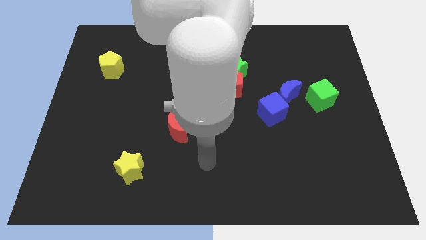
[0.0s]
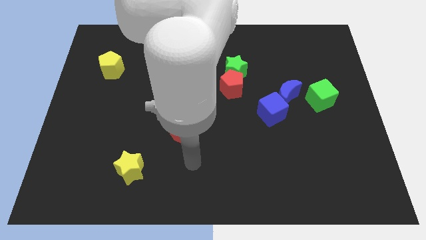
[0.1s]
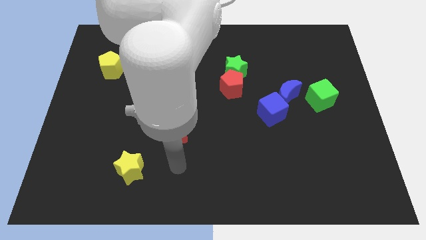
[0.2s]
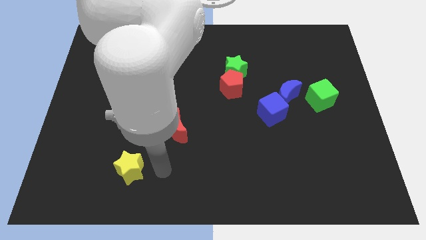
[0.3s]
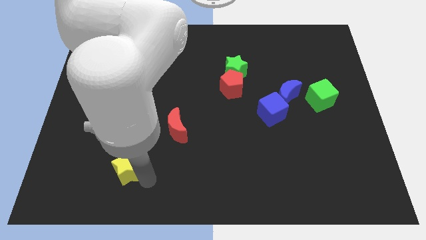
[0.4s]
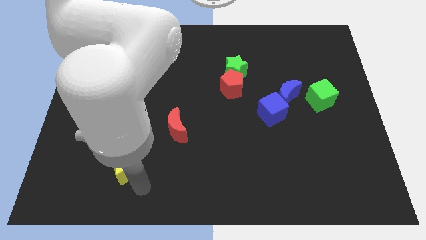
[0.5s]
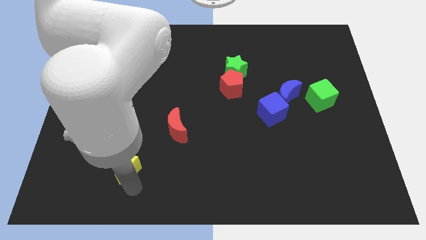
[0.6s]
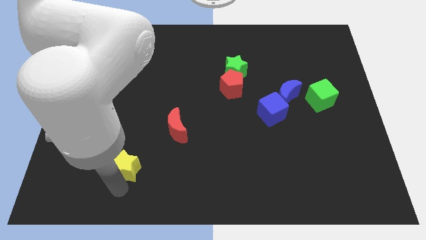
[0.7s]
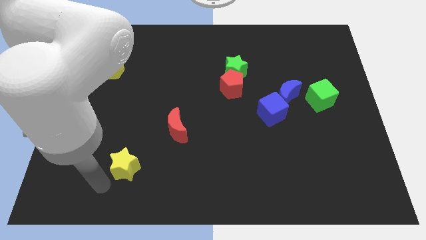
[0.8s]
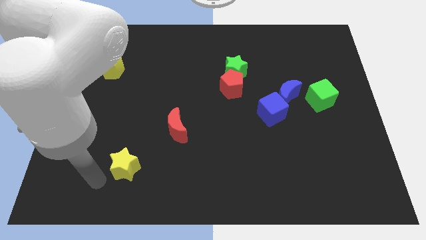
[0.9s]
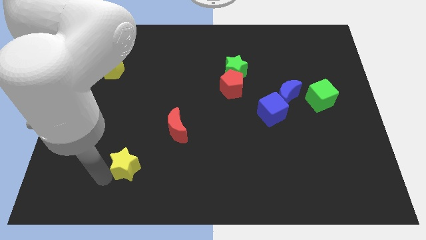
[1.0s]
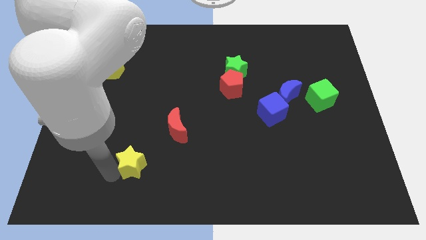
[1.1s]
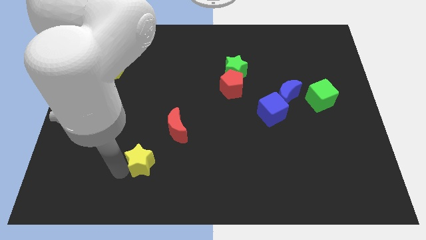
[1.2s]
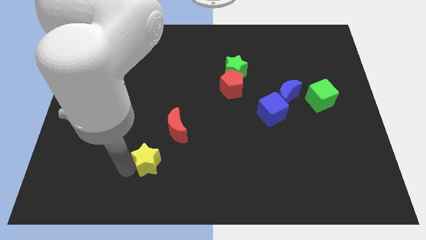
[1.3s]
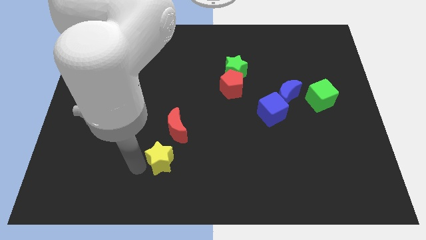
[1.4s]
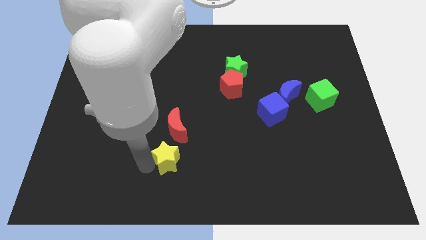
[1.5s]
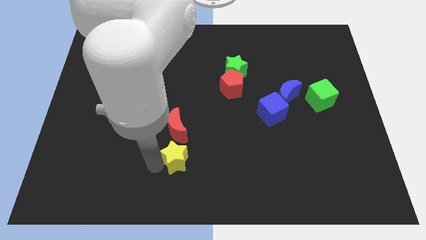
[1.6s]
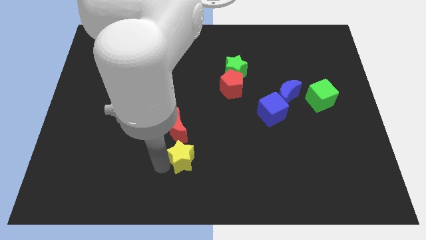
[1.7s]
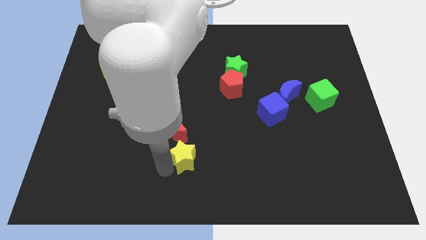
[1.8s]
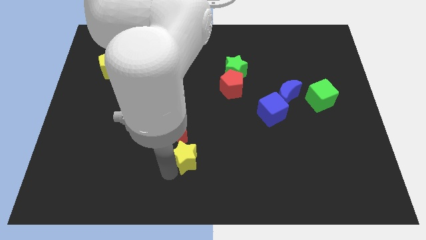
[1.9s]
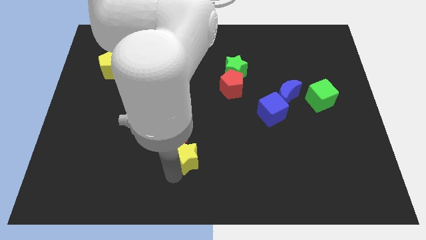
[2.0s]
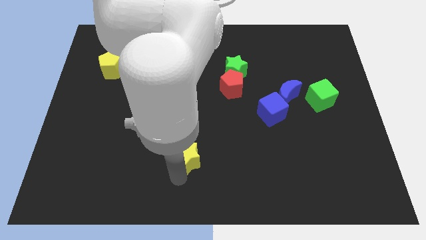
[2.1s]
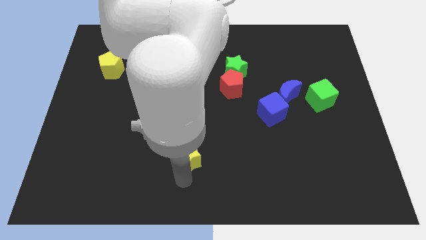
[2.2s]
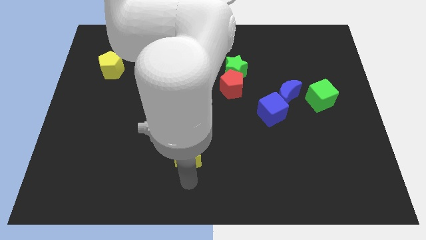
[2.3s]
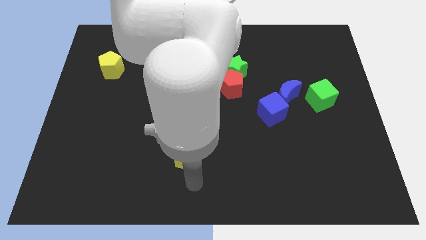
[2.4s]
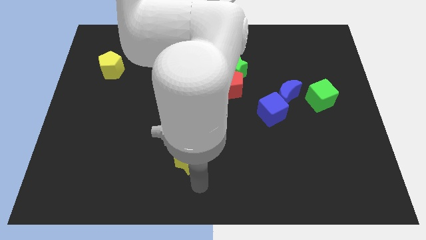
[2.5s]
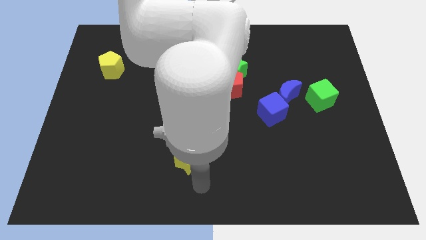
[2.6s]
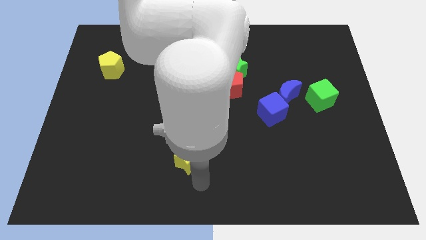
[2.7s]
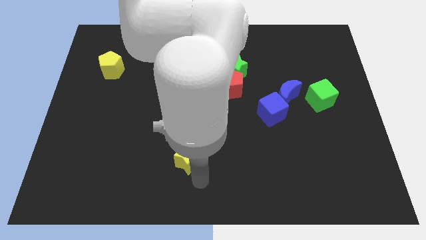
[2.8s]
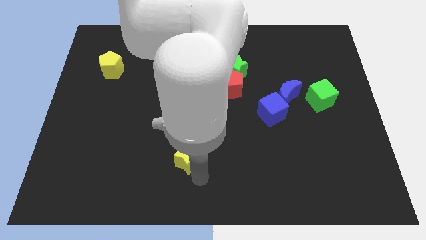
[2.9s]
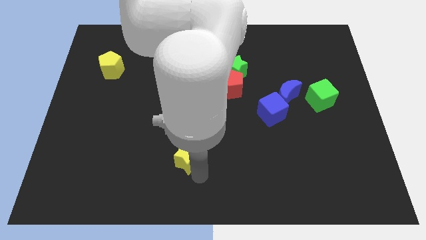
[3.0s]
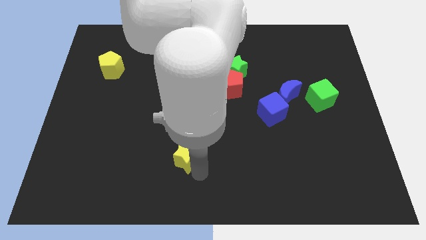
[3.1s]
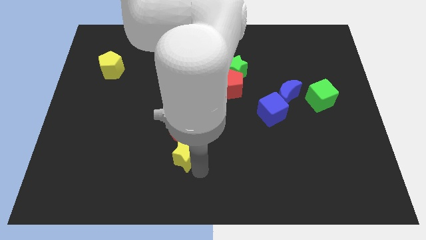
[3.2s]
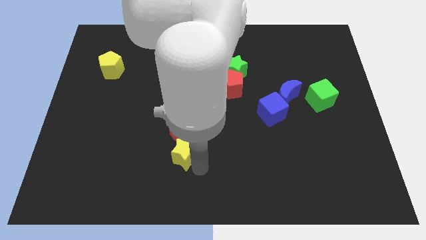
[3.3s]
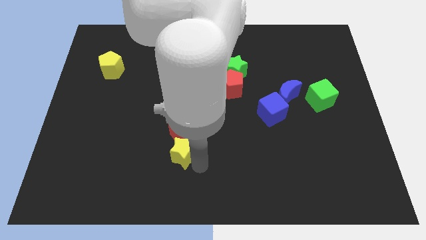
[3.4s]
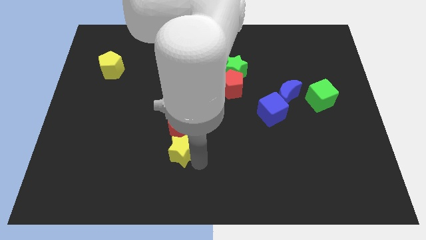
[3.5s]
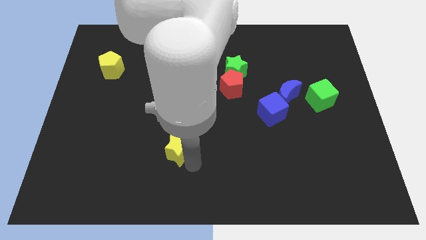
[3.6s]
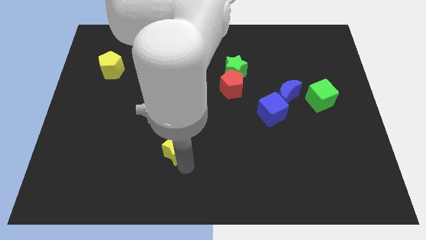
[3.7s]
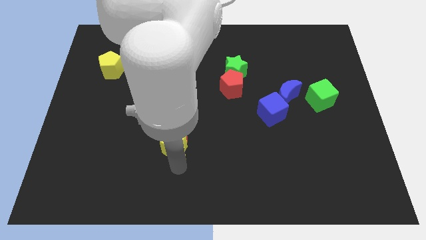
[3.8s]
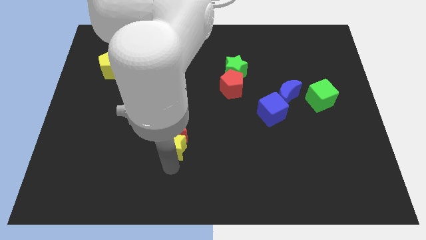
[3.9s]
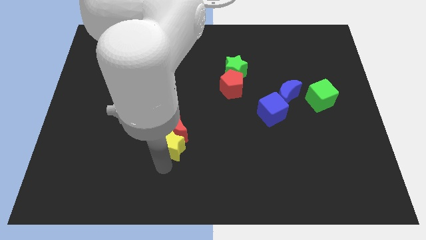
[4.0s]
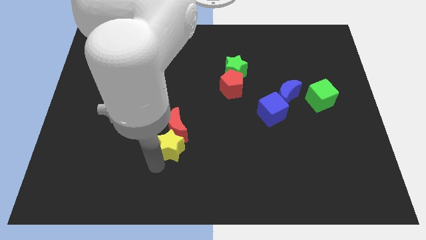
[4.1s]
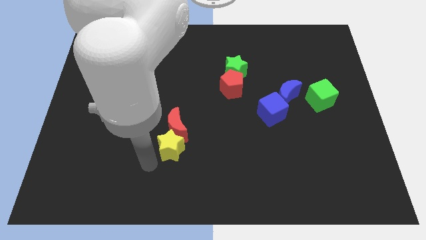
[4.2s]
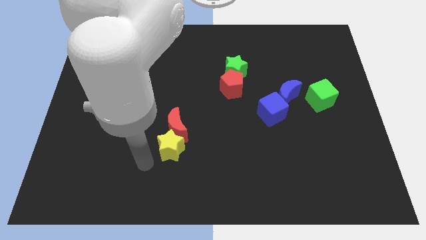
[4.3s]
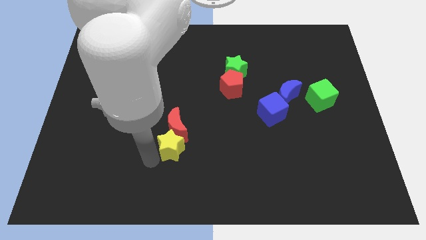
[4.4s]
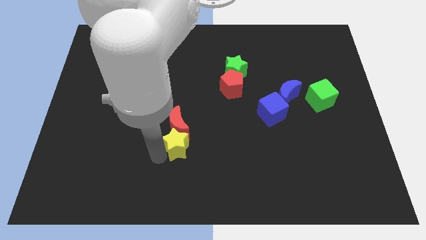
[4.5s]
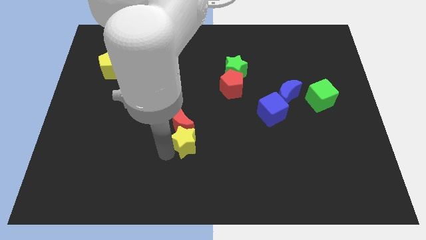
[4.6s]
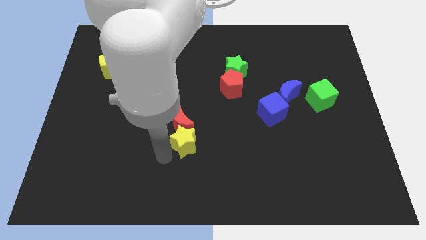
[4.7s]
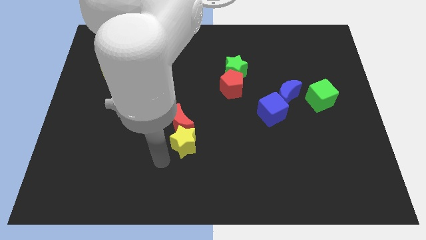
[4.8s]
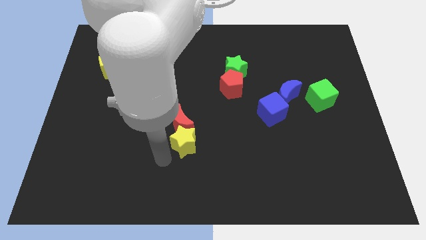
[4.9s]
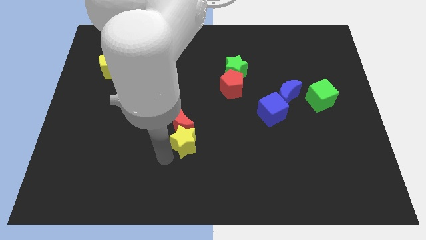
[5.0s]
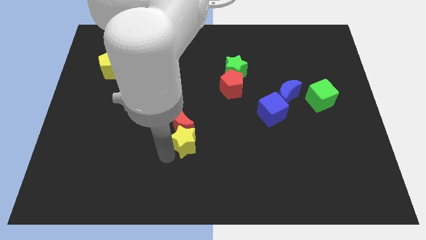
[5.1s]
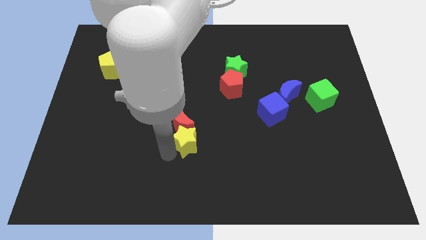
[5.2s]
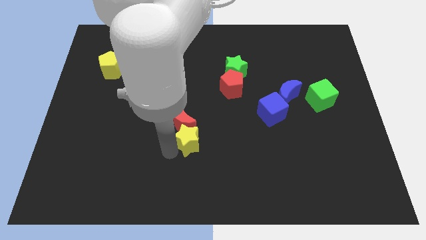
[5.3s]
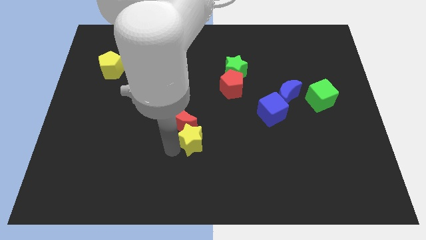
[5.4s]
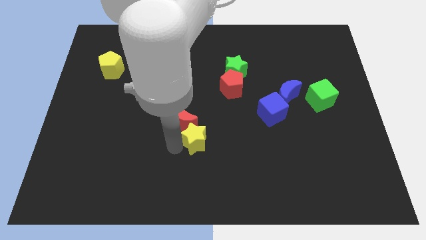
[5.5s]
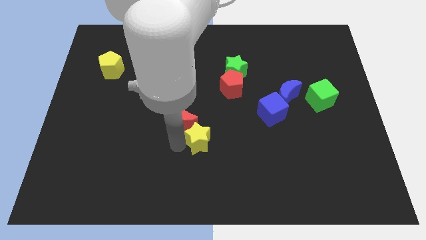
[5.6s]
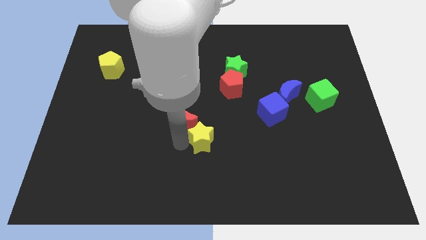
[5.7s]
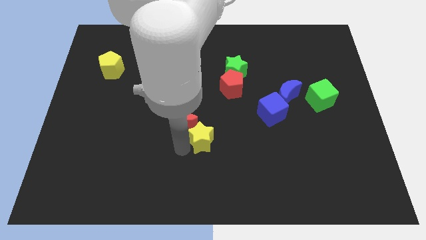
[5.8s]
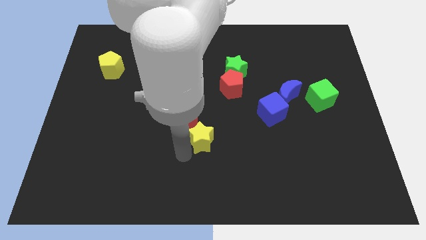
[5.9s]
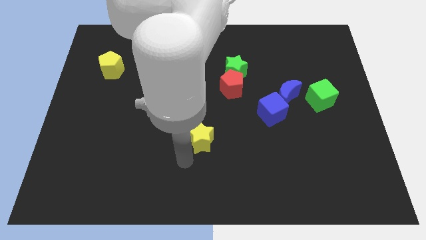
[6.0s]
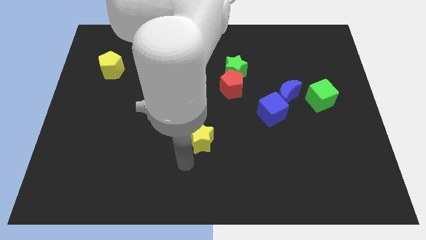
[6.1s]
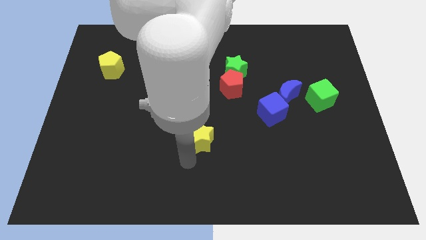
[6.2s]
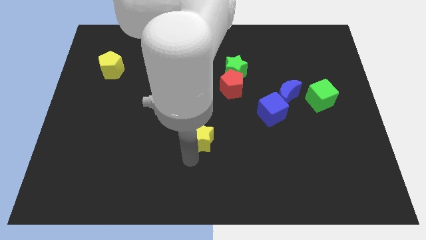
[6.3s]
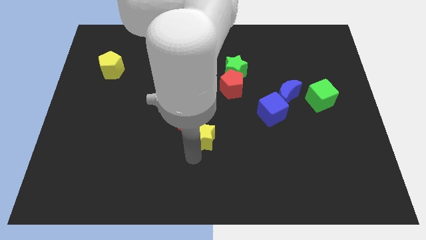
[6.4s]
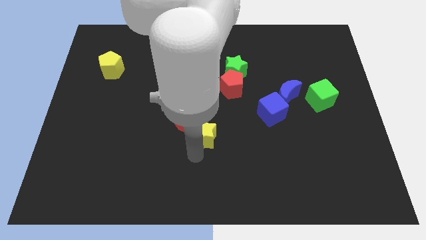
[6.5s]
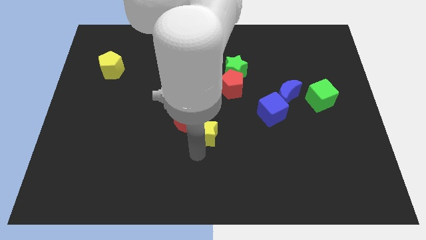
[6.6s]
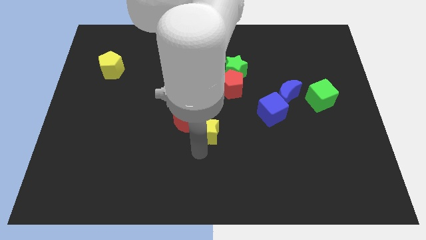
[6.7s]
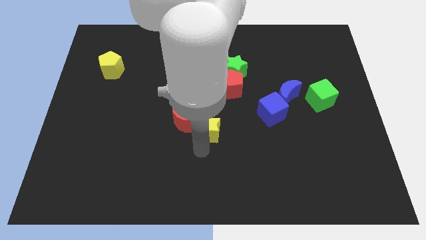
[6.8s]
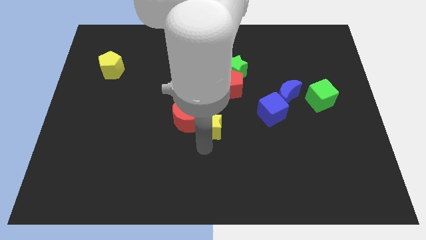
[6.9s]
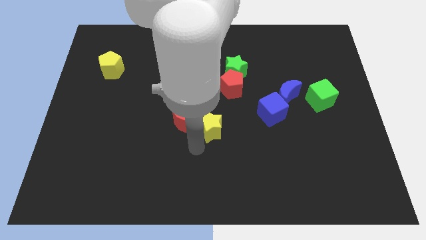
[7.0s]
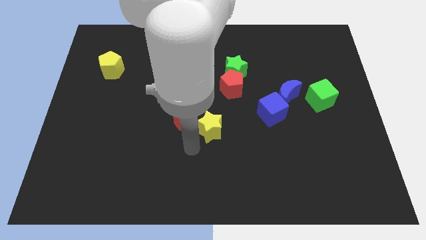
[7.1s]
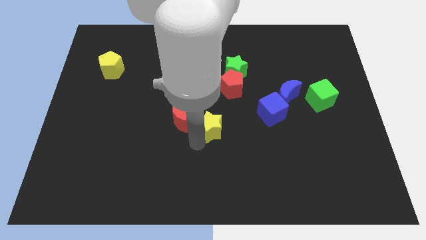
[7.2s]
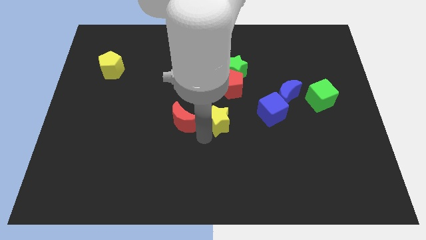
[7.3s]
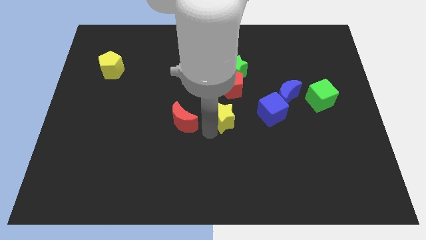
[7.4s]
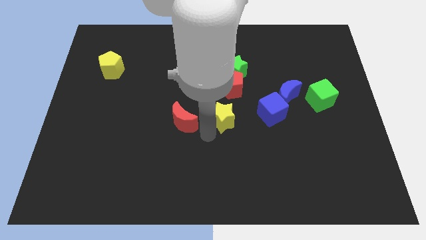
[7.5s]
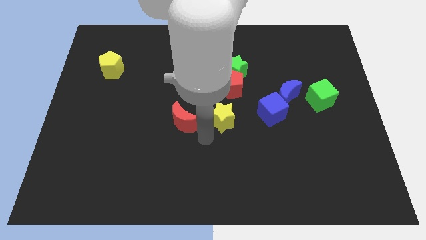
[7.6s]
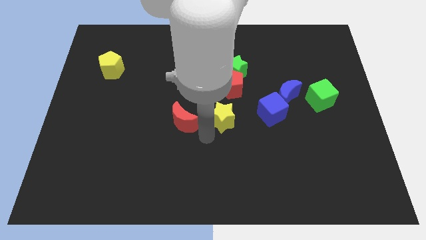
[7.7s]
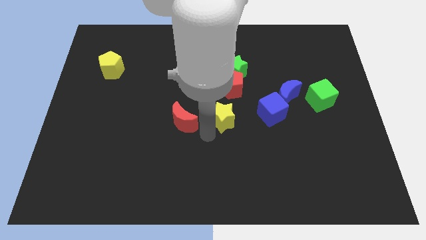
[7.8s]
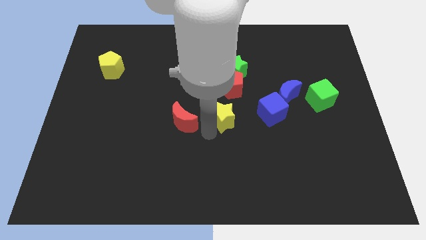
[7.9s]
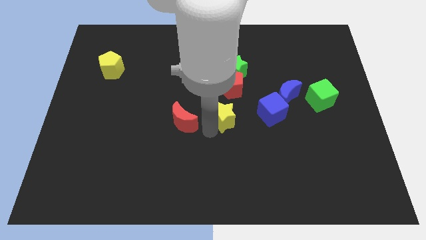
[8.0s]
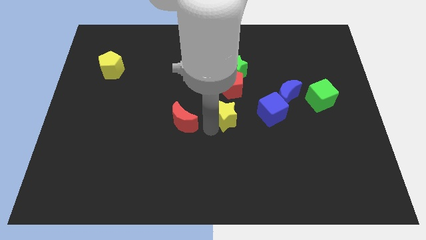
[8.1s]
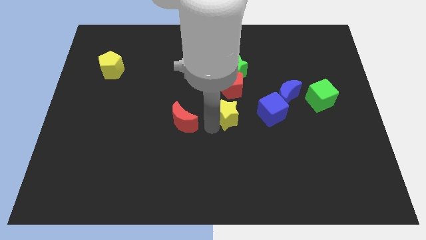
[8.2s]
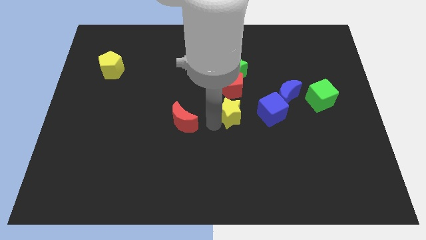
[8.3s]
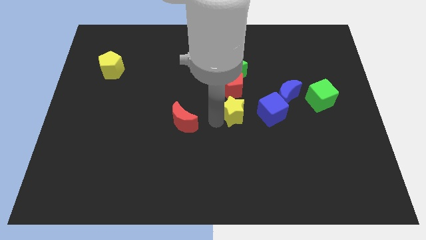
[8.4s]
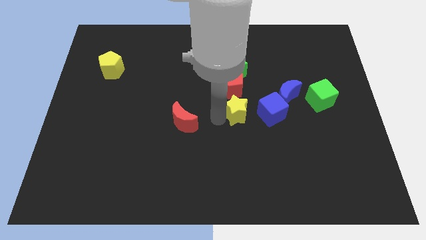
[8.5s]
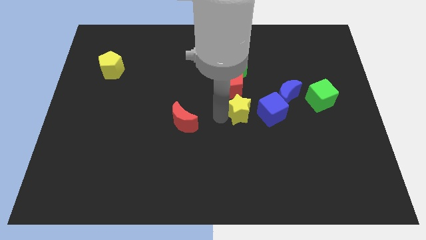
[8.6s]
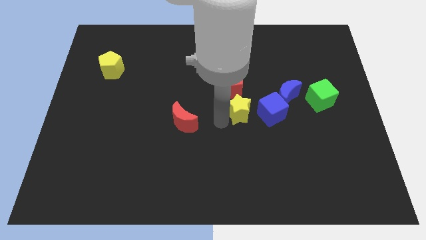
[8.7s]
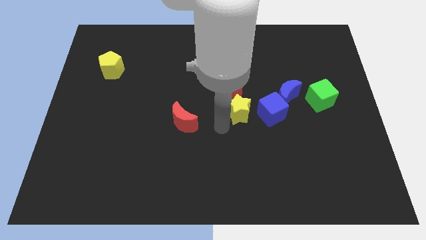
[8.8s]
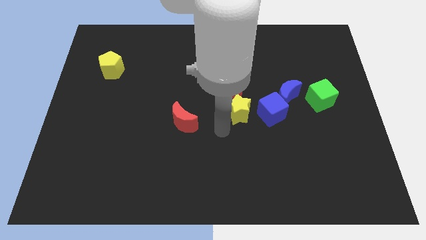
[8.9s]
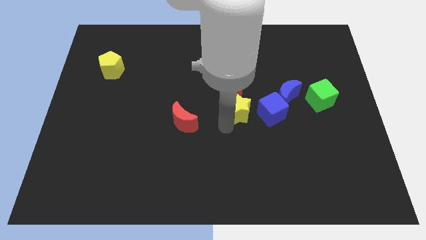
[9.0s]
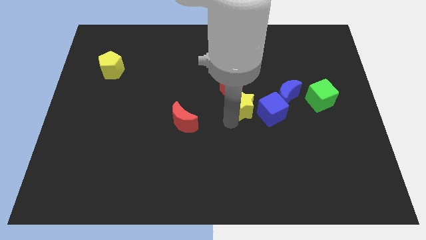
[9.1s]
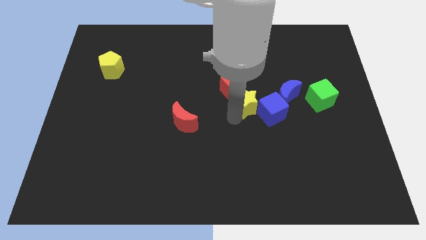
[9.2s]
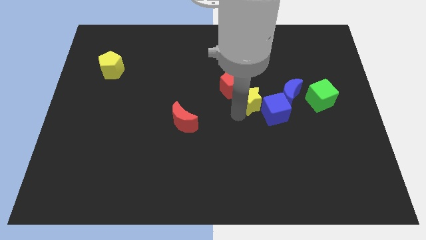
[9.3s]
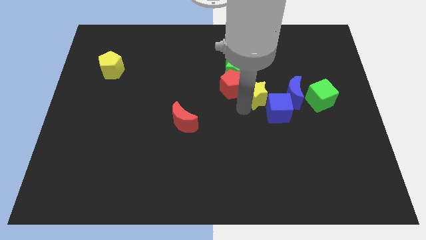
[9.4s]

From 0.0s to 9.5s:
move the yellow star to the right of the red pentagon
